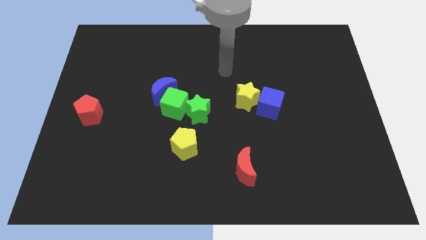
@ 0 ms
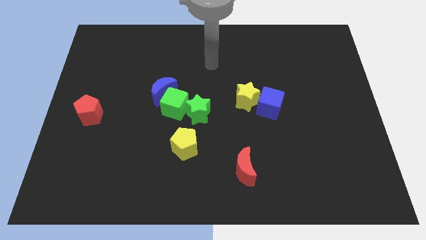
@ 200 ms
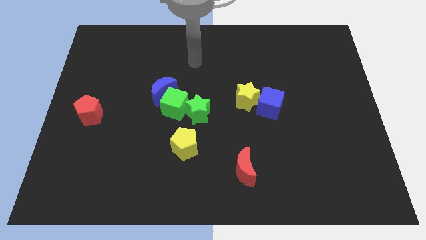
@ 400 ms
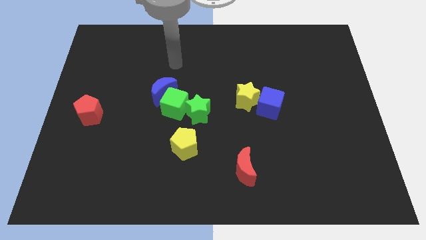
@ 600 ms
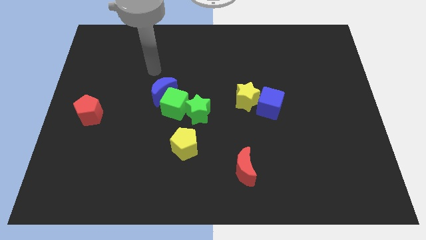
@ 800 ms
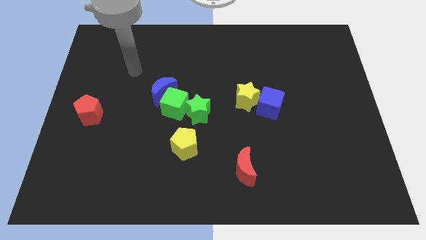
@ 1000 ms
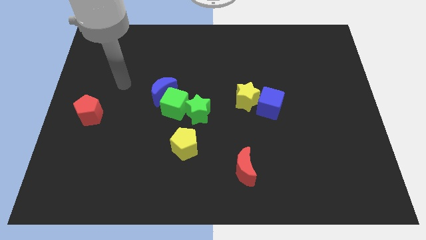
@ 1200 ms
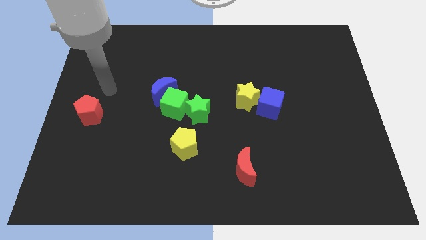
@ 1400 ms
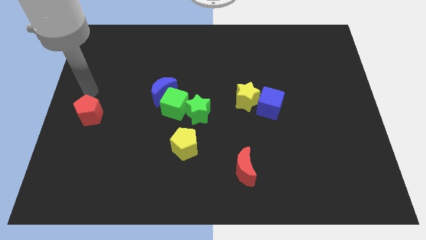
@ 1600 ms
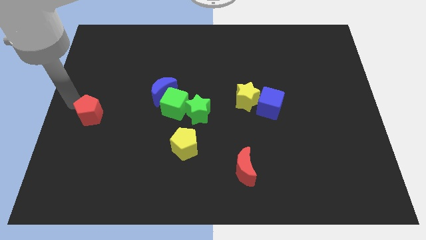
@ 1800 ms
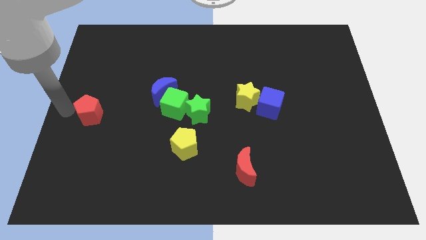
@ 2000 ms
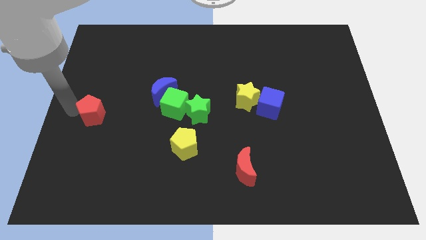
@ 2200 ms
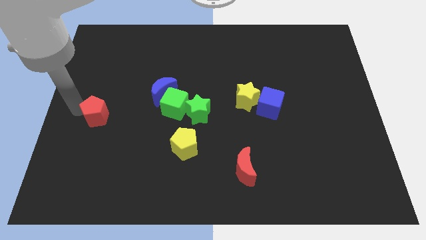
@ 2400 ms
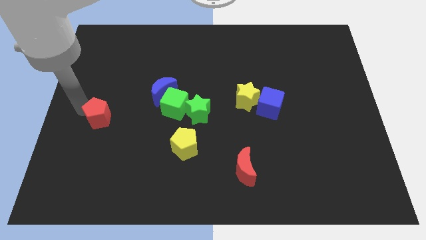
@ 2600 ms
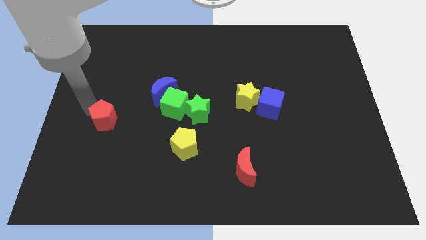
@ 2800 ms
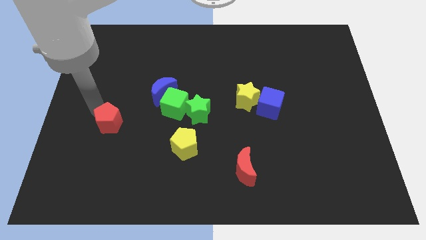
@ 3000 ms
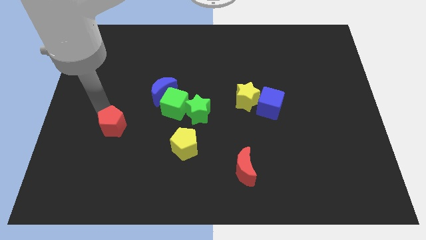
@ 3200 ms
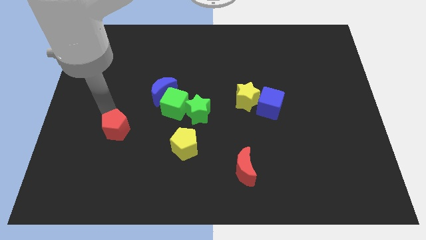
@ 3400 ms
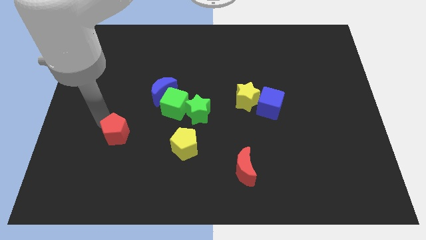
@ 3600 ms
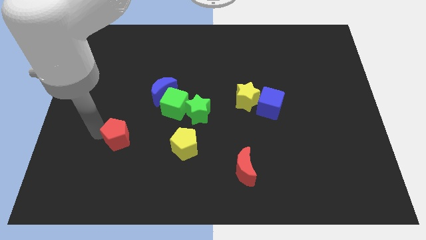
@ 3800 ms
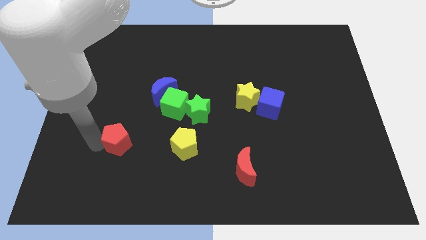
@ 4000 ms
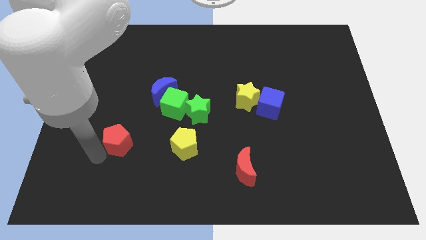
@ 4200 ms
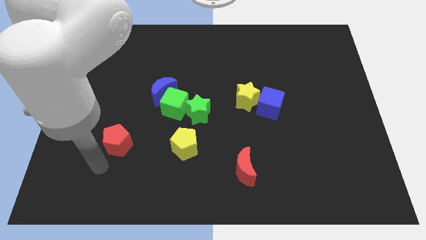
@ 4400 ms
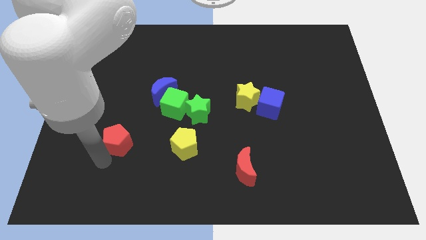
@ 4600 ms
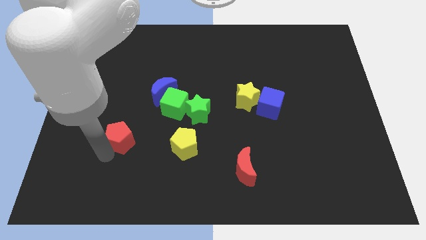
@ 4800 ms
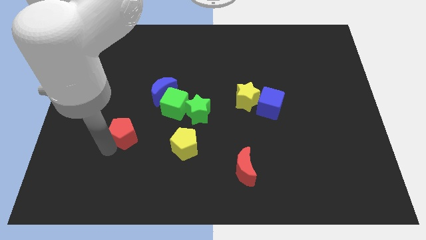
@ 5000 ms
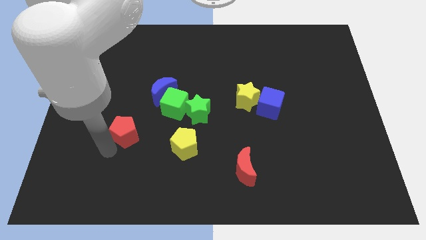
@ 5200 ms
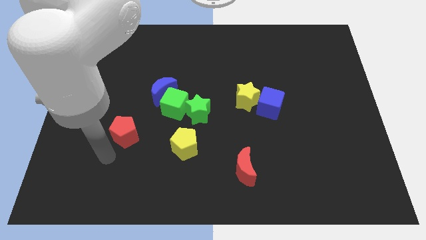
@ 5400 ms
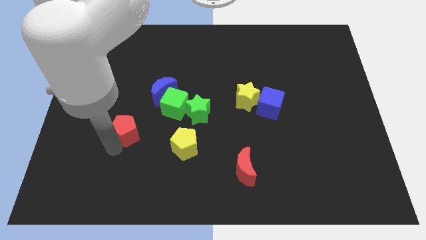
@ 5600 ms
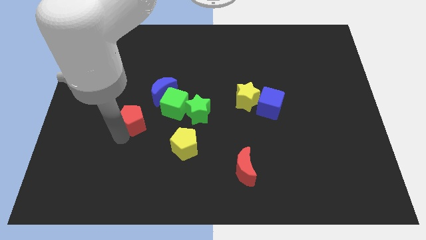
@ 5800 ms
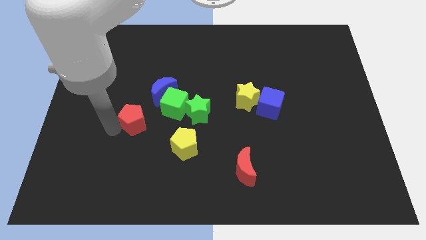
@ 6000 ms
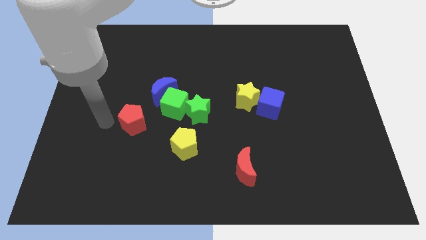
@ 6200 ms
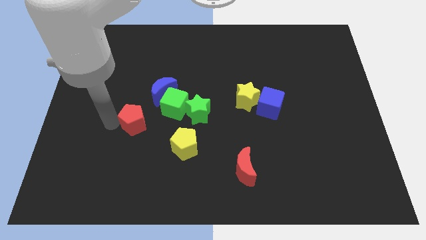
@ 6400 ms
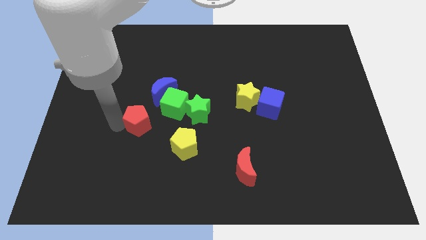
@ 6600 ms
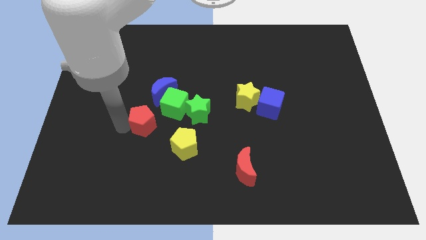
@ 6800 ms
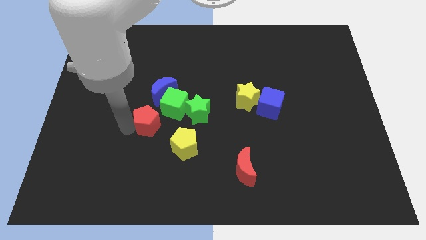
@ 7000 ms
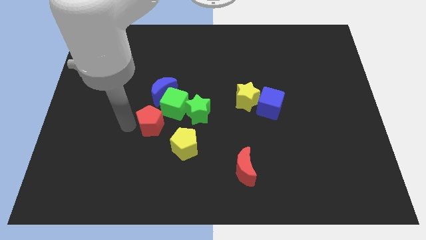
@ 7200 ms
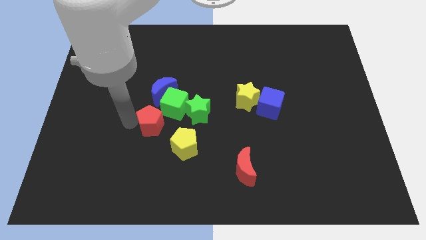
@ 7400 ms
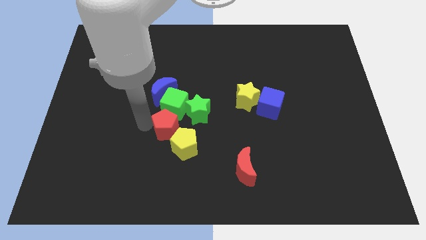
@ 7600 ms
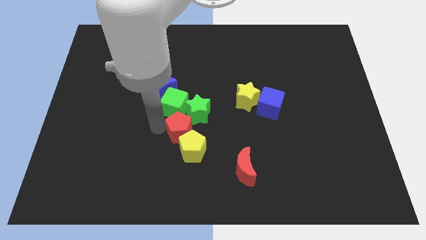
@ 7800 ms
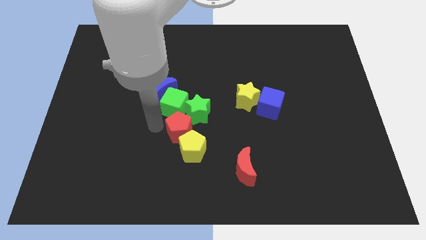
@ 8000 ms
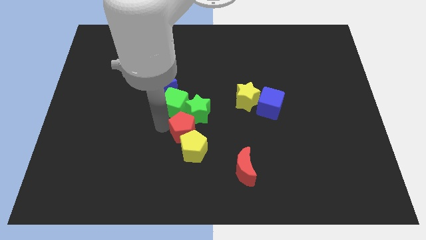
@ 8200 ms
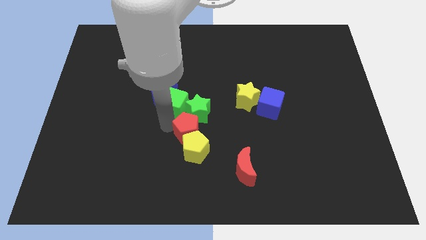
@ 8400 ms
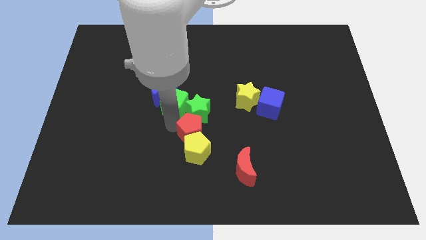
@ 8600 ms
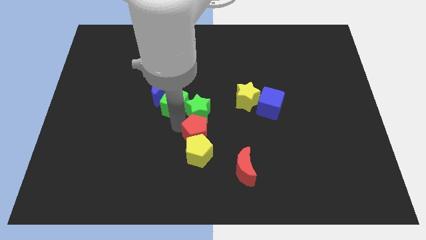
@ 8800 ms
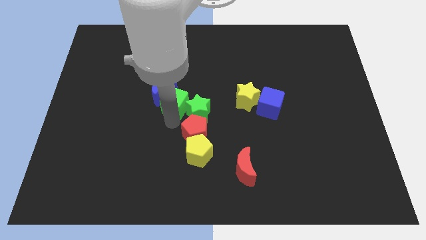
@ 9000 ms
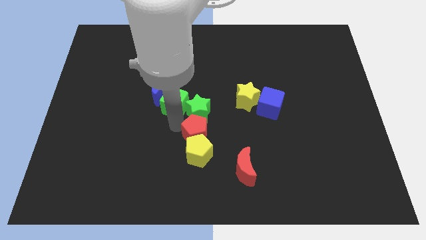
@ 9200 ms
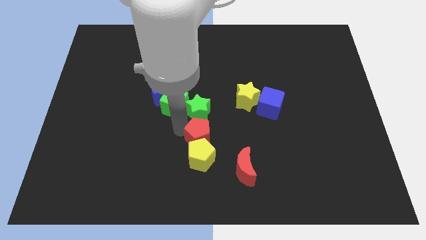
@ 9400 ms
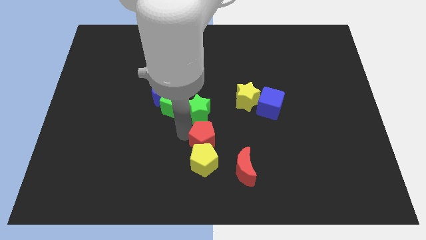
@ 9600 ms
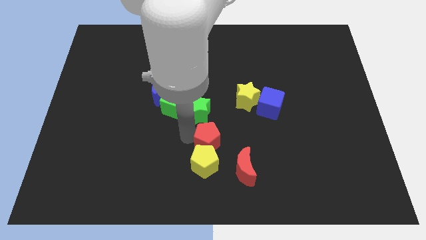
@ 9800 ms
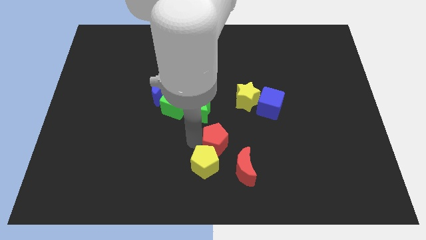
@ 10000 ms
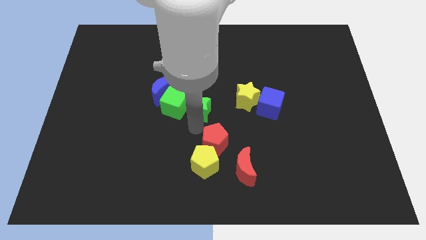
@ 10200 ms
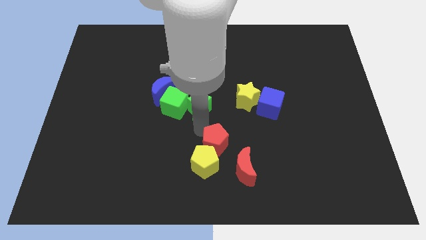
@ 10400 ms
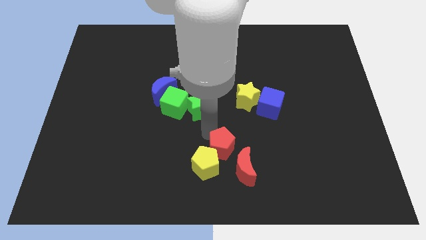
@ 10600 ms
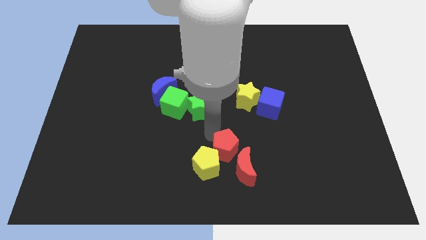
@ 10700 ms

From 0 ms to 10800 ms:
slide the red pentagon towards the red moon

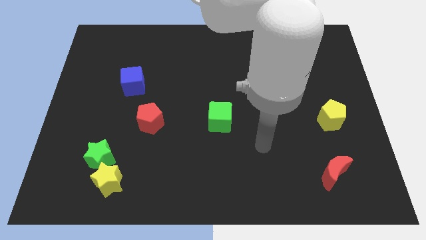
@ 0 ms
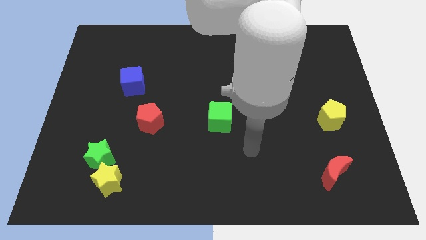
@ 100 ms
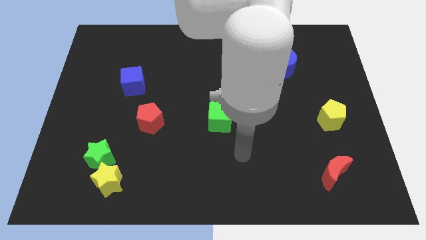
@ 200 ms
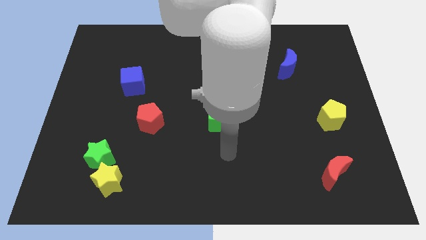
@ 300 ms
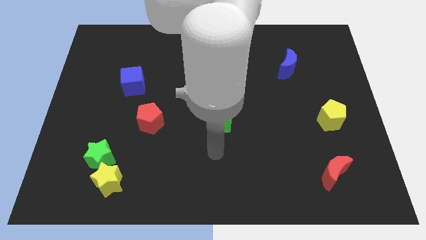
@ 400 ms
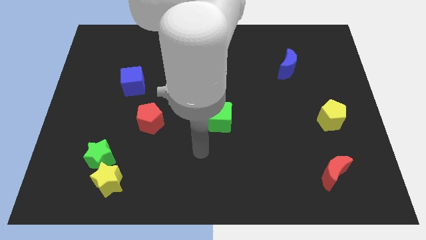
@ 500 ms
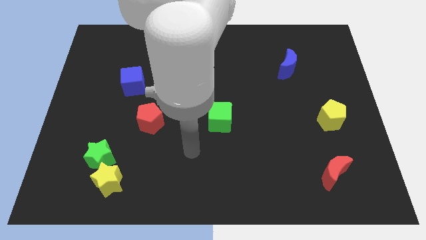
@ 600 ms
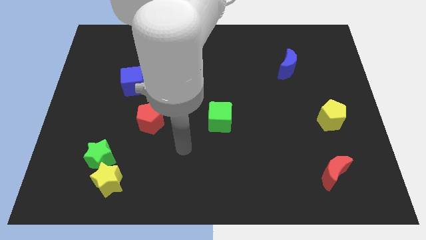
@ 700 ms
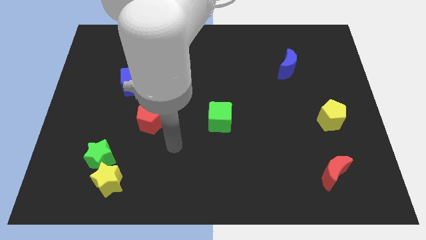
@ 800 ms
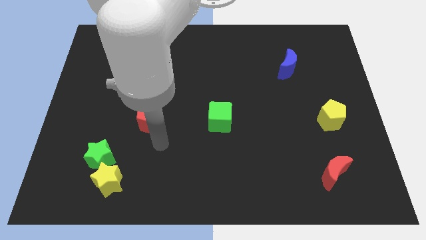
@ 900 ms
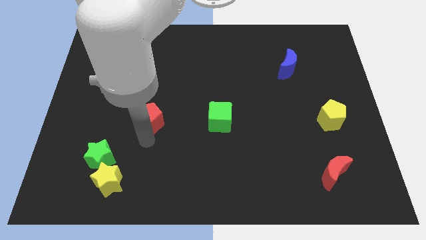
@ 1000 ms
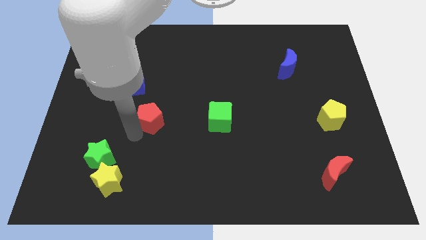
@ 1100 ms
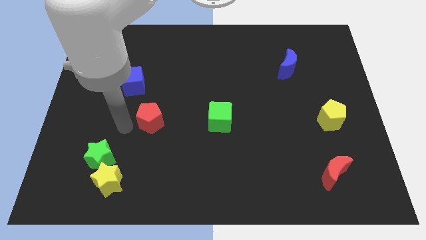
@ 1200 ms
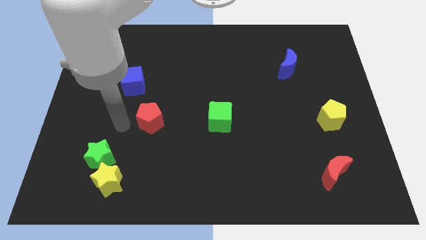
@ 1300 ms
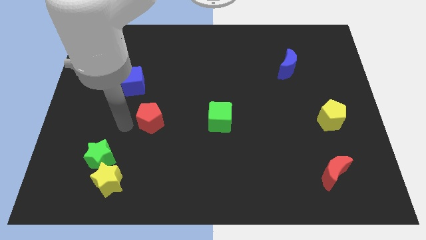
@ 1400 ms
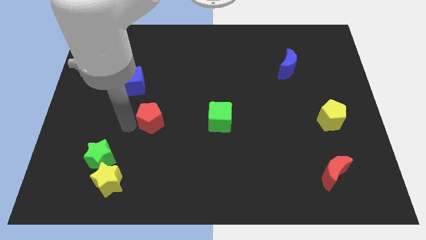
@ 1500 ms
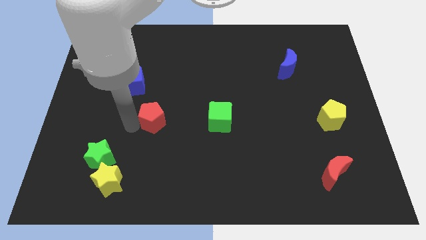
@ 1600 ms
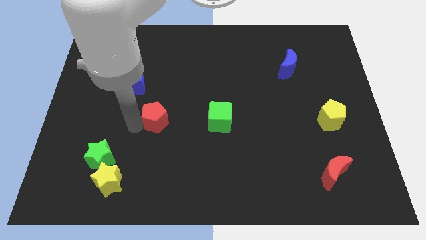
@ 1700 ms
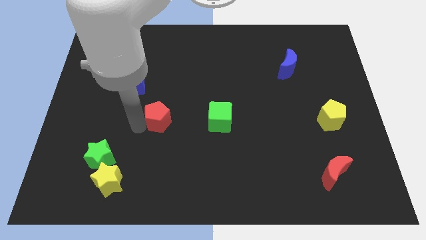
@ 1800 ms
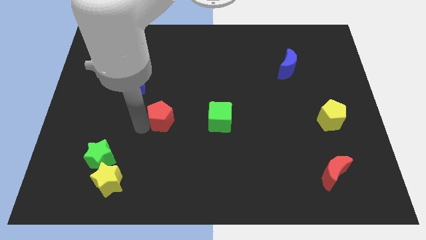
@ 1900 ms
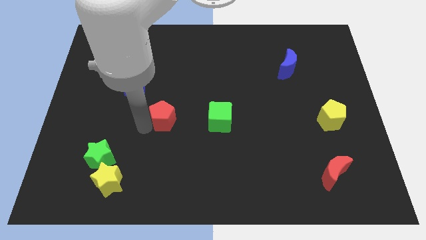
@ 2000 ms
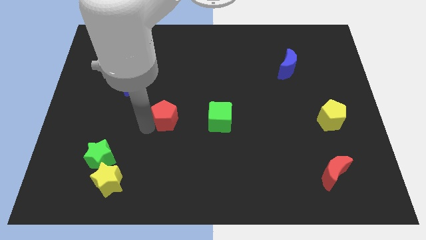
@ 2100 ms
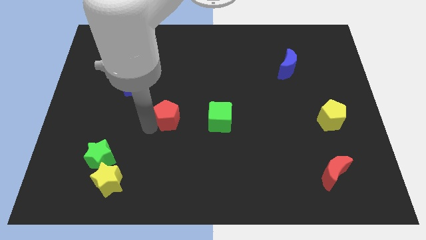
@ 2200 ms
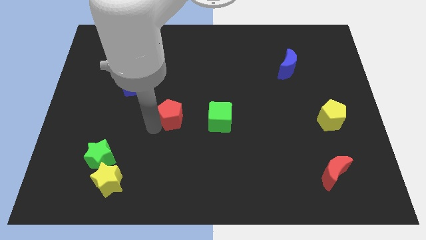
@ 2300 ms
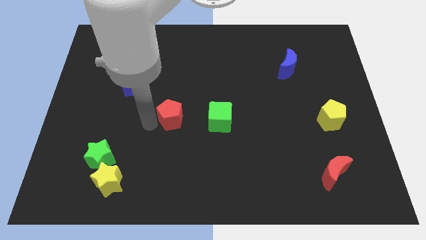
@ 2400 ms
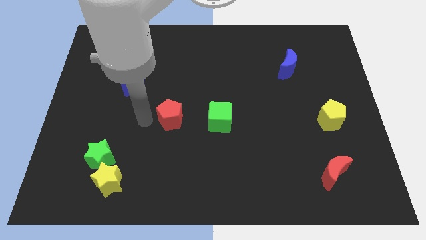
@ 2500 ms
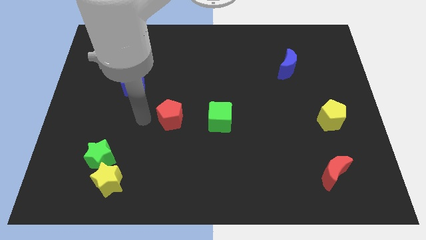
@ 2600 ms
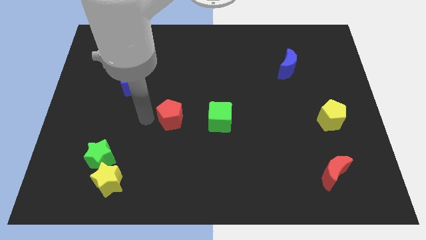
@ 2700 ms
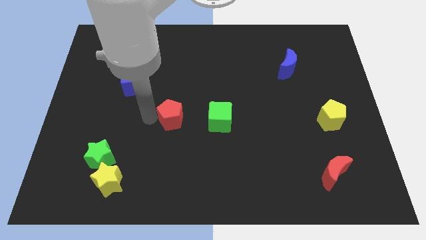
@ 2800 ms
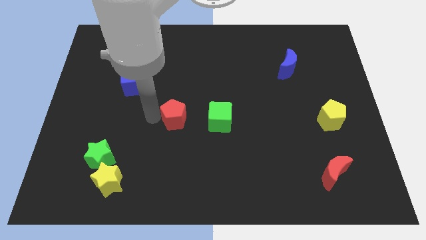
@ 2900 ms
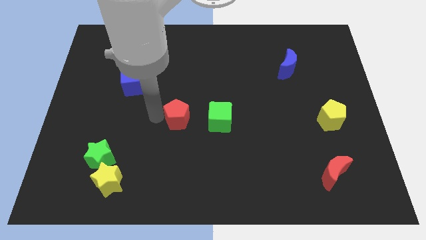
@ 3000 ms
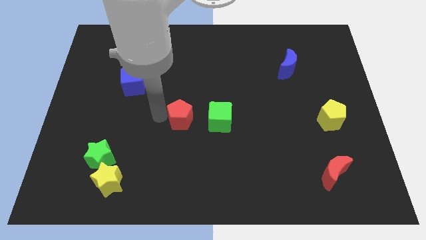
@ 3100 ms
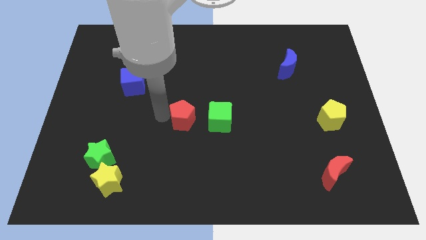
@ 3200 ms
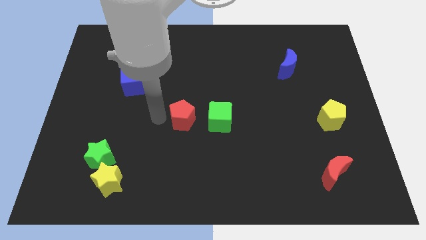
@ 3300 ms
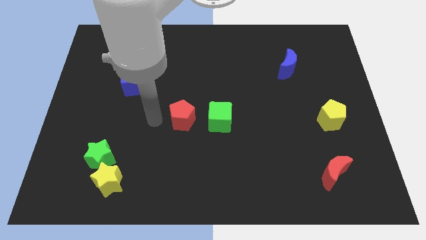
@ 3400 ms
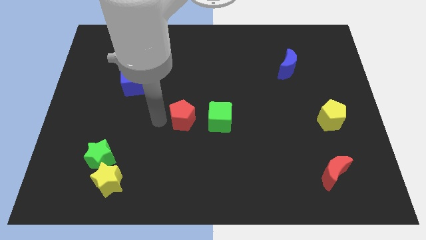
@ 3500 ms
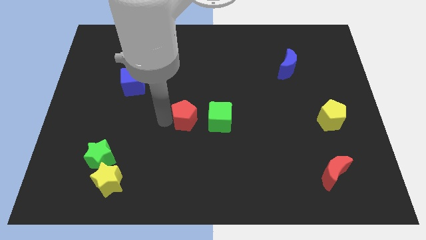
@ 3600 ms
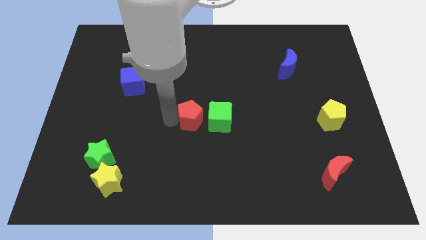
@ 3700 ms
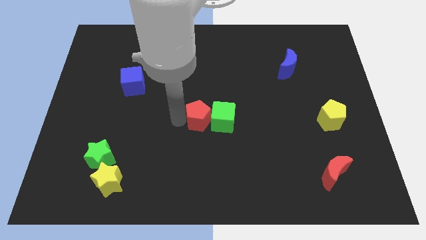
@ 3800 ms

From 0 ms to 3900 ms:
slide the red pentagon next to the green cube
